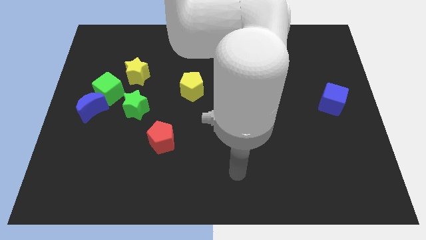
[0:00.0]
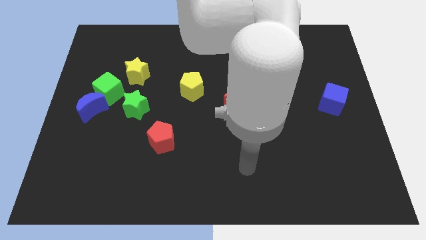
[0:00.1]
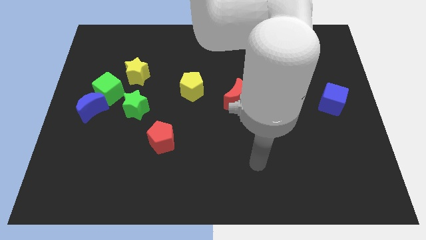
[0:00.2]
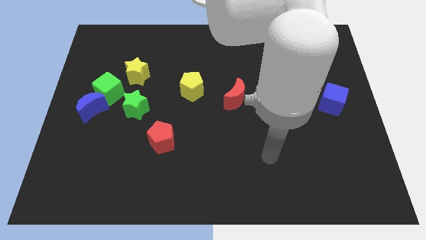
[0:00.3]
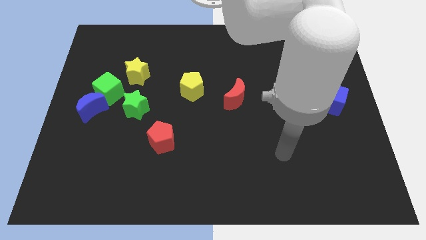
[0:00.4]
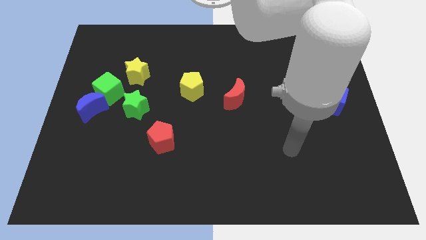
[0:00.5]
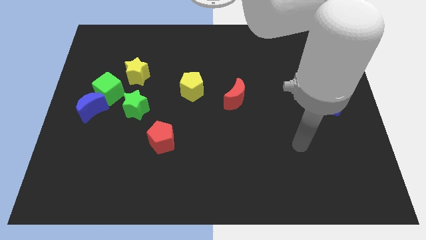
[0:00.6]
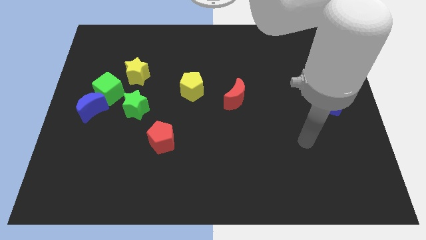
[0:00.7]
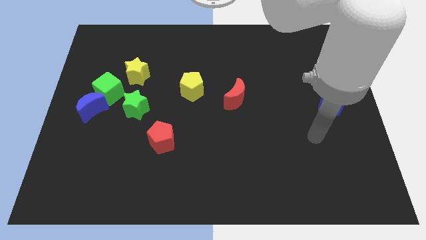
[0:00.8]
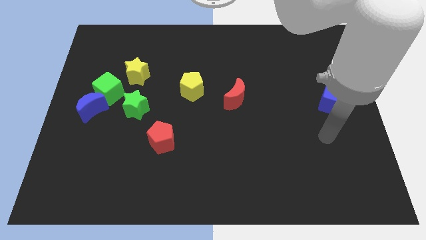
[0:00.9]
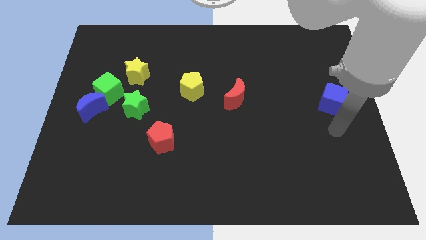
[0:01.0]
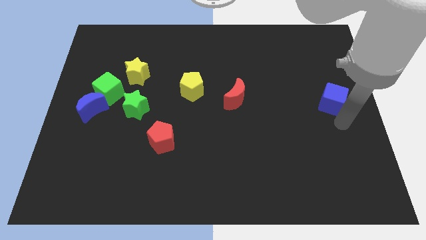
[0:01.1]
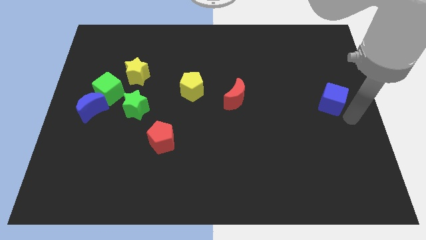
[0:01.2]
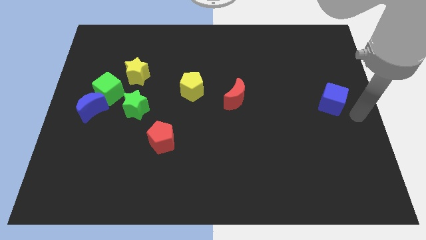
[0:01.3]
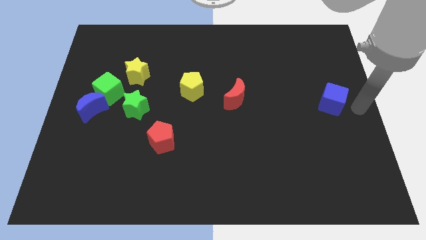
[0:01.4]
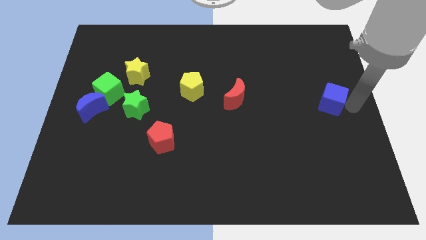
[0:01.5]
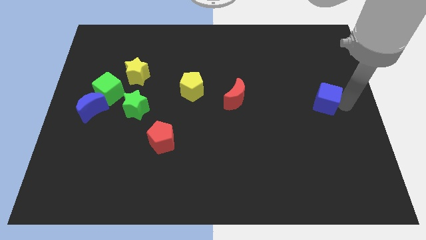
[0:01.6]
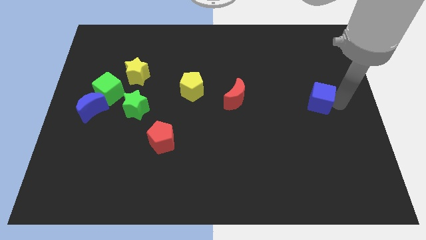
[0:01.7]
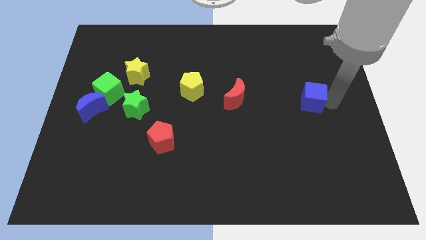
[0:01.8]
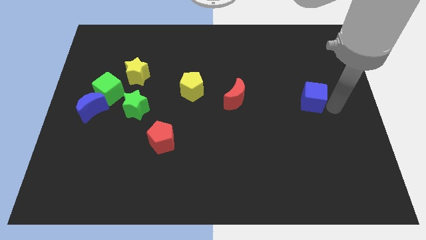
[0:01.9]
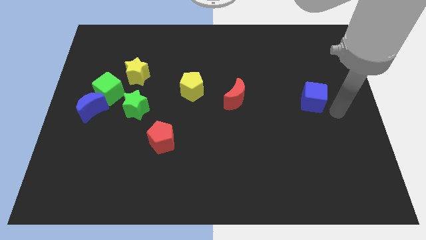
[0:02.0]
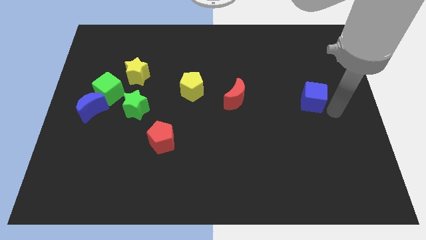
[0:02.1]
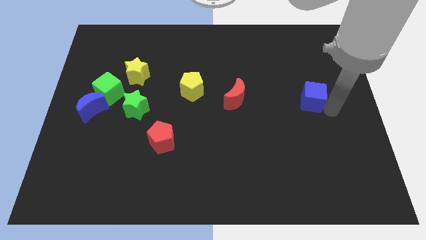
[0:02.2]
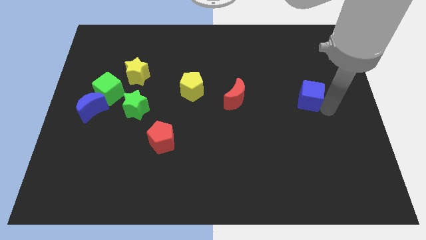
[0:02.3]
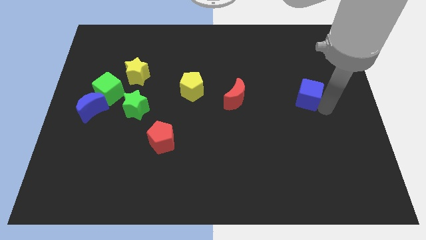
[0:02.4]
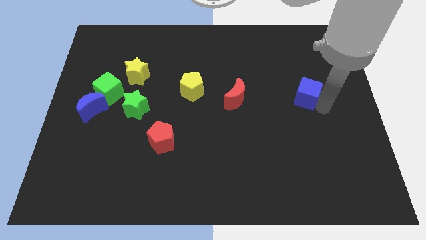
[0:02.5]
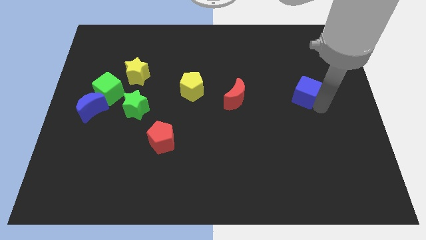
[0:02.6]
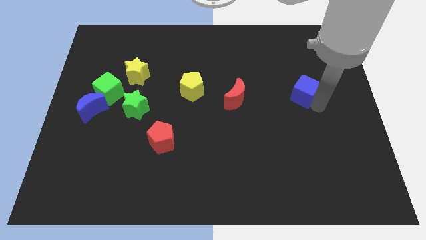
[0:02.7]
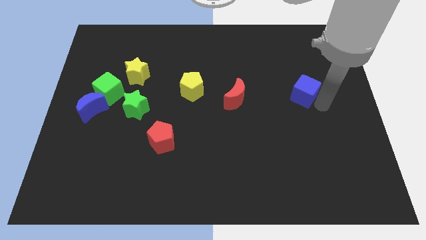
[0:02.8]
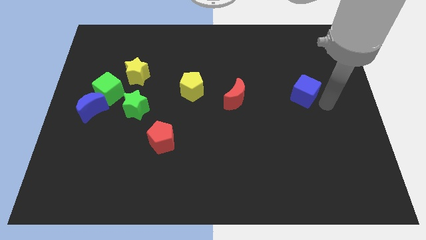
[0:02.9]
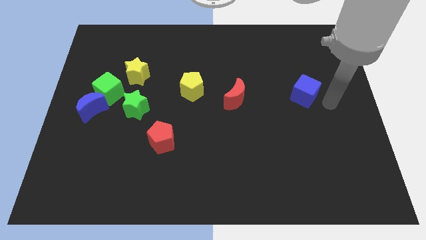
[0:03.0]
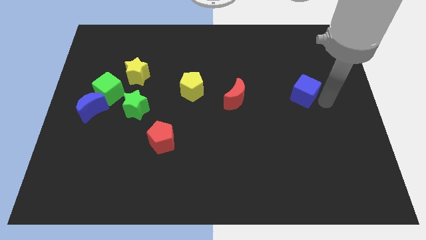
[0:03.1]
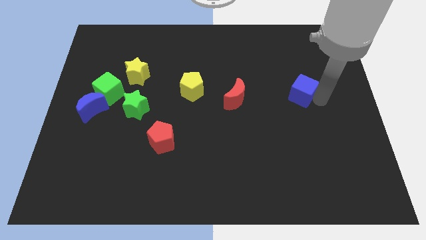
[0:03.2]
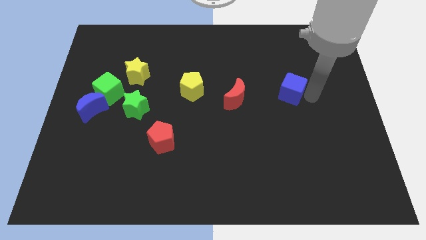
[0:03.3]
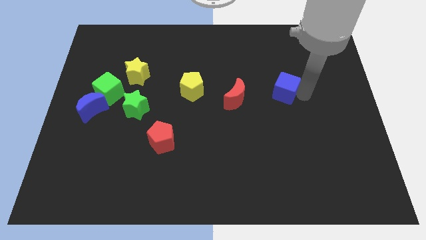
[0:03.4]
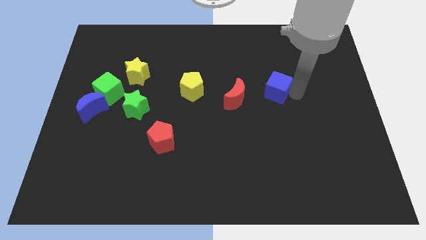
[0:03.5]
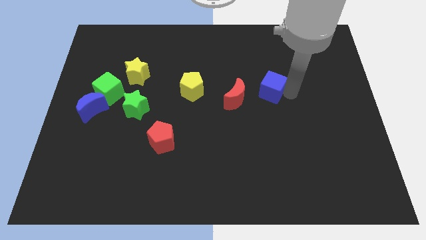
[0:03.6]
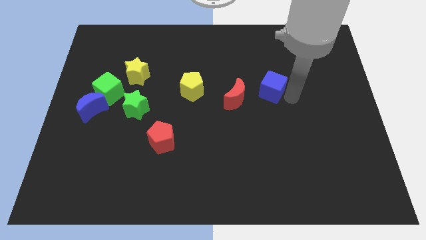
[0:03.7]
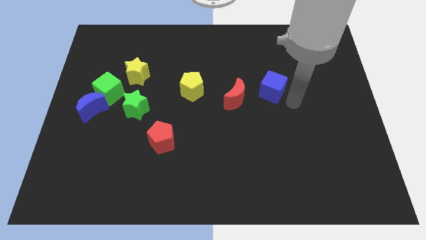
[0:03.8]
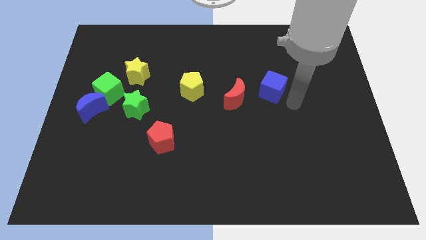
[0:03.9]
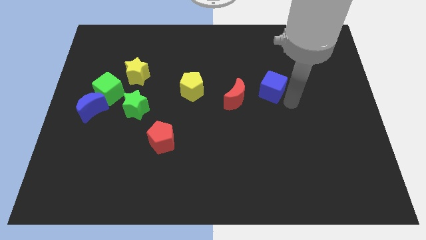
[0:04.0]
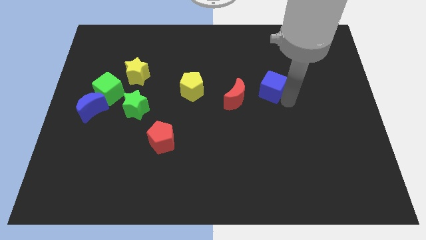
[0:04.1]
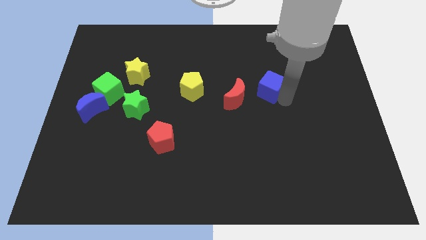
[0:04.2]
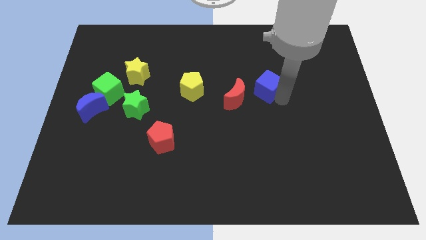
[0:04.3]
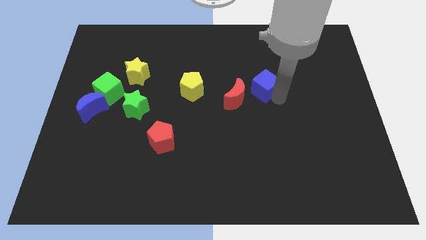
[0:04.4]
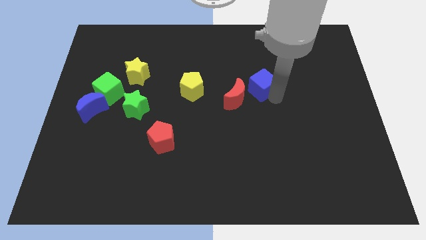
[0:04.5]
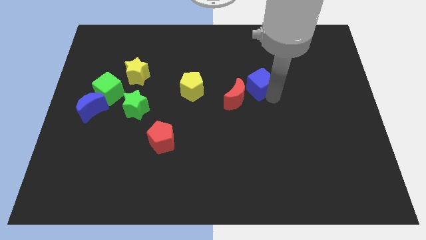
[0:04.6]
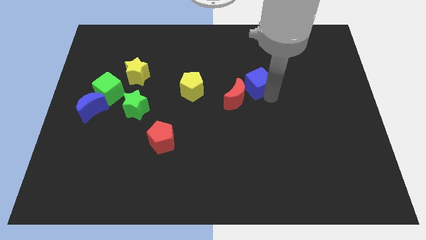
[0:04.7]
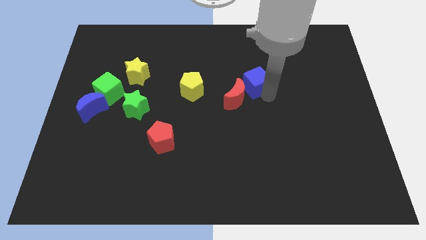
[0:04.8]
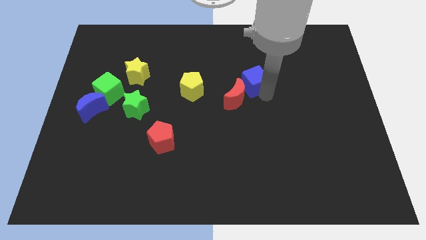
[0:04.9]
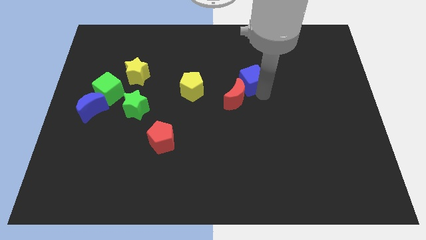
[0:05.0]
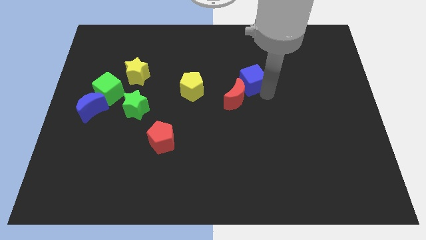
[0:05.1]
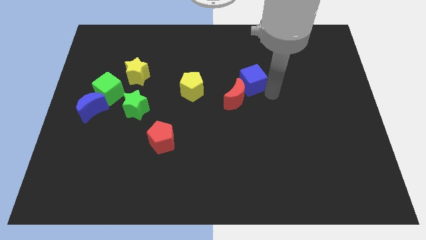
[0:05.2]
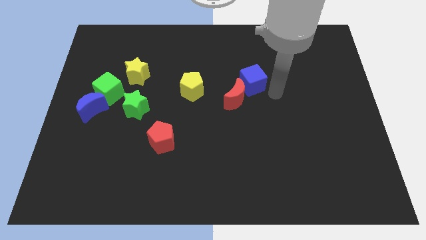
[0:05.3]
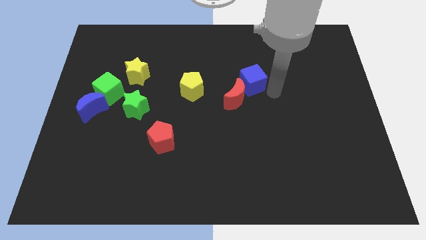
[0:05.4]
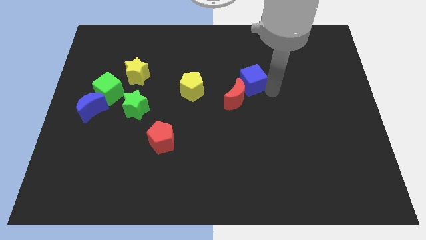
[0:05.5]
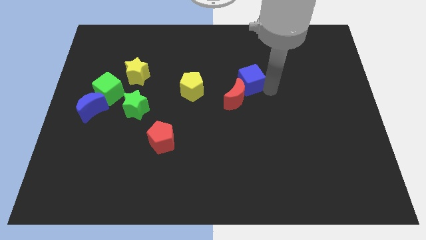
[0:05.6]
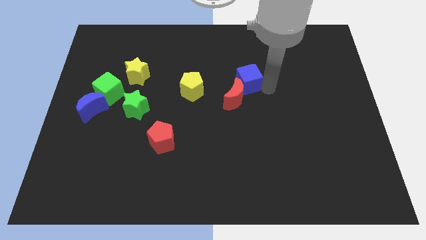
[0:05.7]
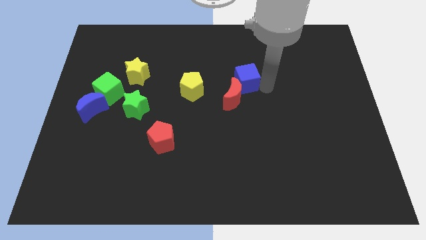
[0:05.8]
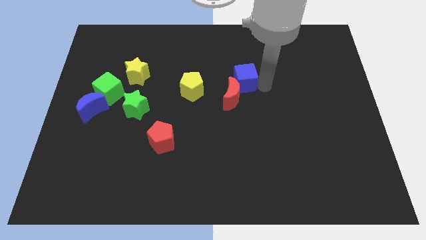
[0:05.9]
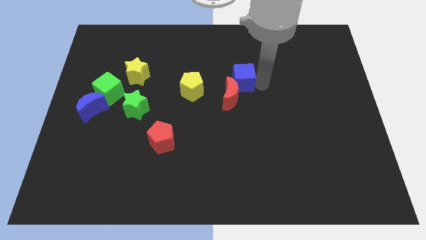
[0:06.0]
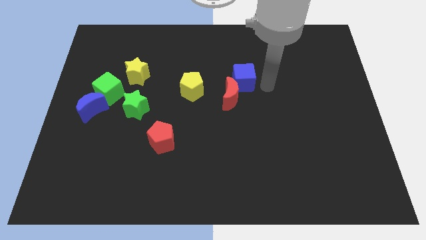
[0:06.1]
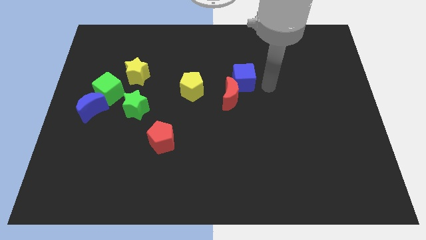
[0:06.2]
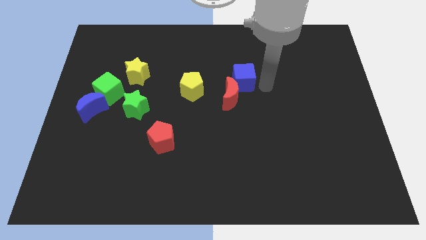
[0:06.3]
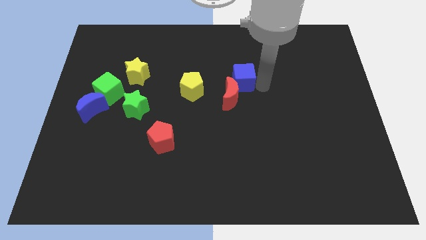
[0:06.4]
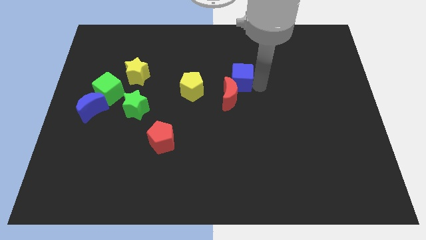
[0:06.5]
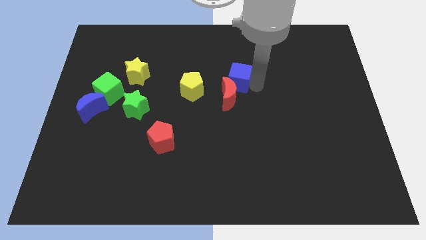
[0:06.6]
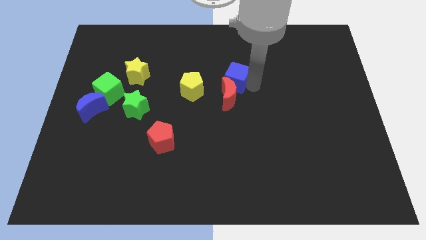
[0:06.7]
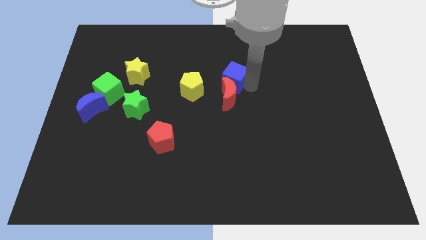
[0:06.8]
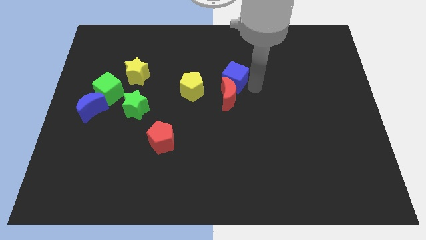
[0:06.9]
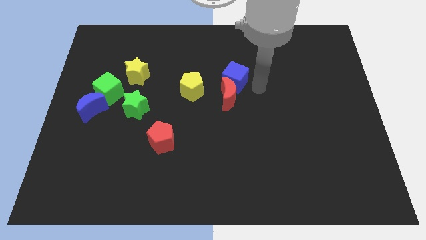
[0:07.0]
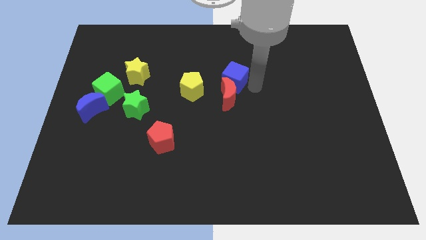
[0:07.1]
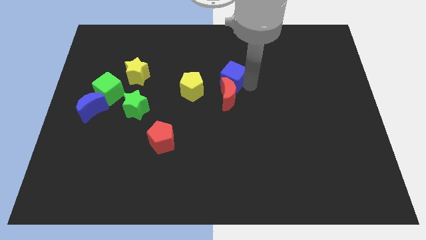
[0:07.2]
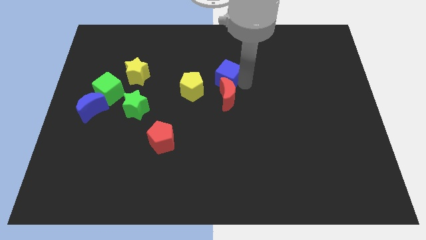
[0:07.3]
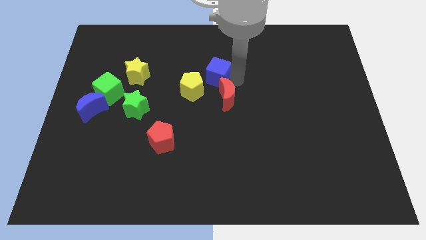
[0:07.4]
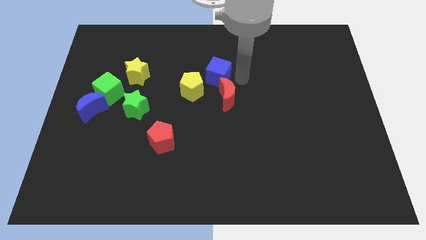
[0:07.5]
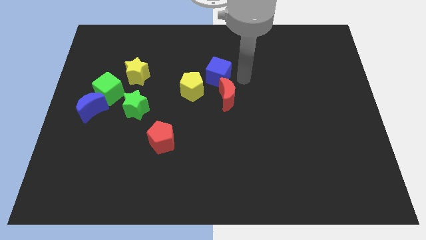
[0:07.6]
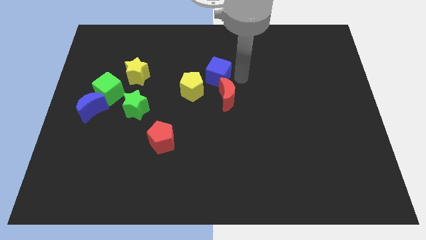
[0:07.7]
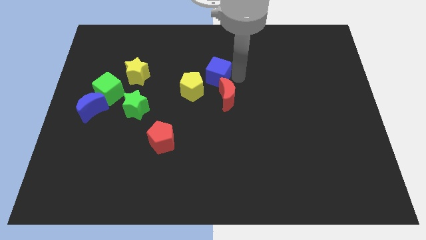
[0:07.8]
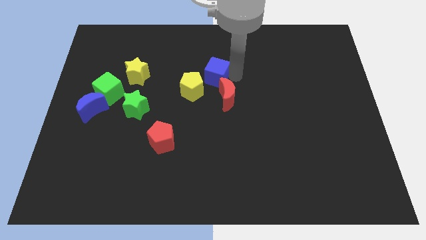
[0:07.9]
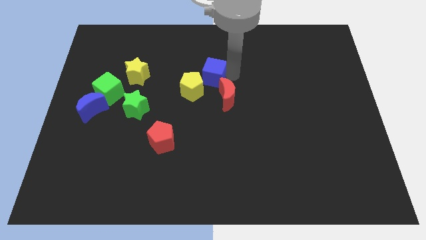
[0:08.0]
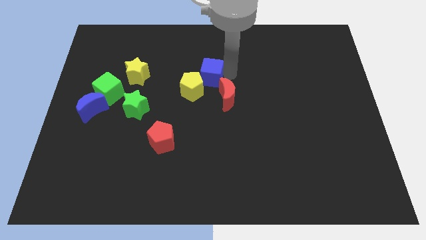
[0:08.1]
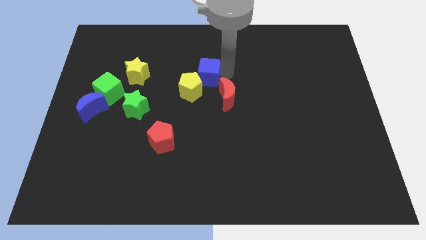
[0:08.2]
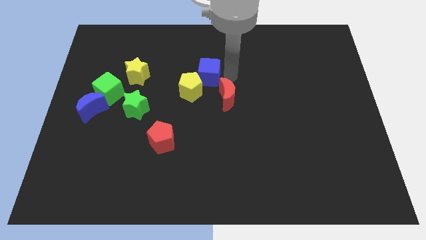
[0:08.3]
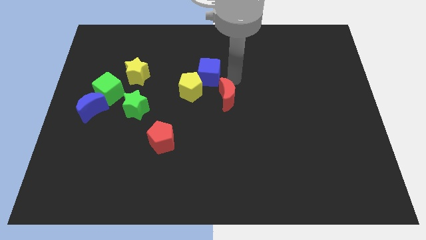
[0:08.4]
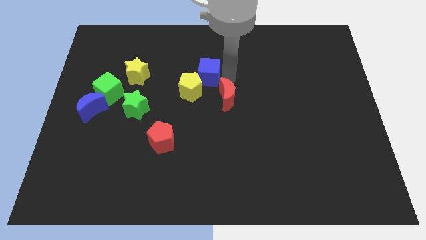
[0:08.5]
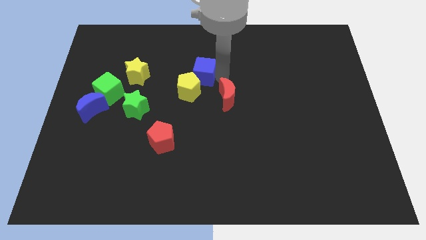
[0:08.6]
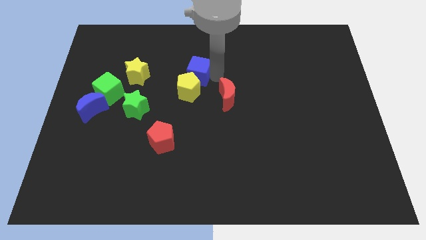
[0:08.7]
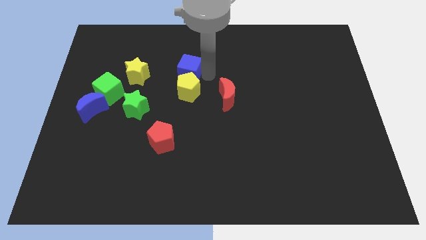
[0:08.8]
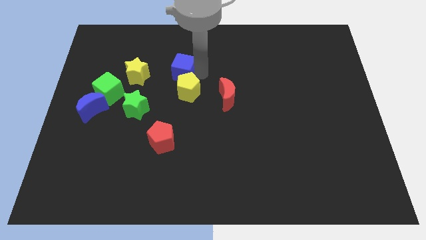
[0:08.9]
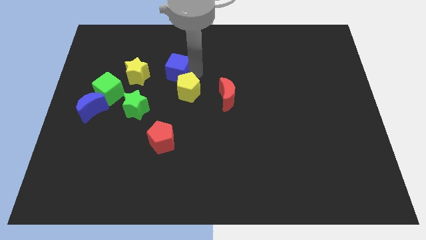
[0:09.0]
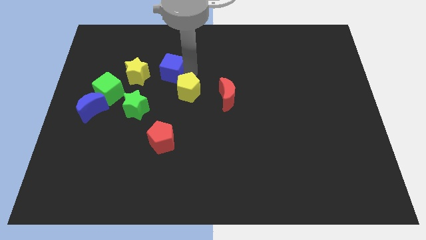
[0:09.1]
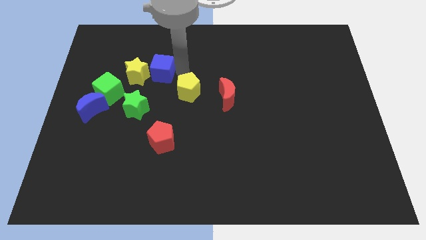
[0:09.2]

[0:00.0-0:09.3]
put the blue cube next to the yellow star
